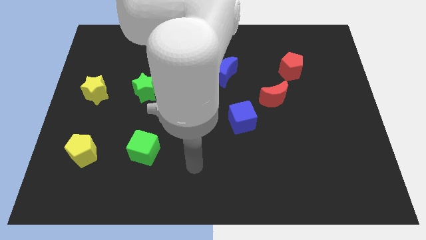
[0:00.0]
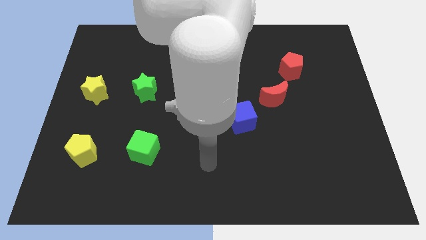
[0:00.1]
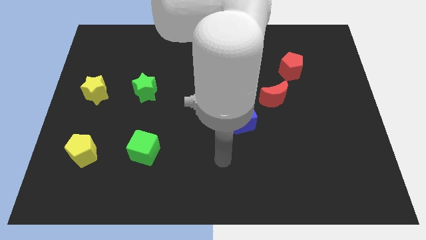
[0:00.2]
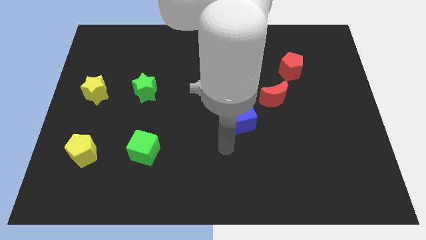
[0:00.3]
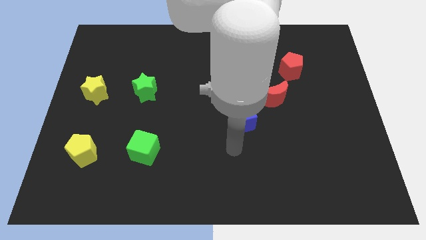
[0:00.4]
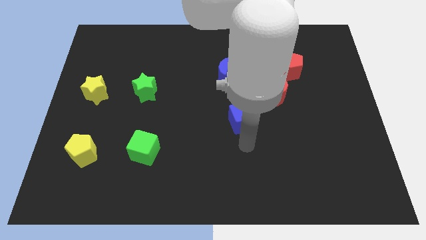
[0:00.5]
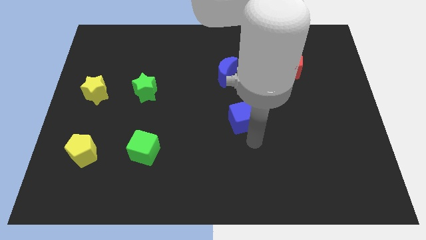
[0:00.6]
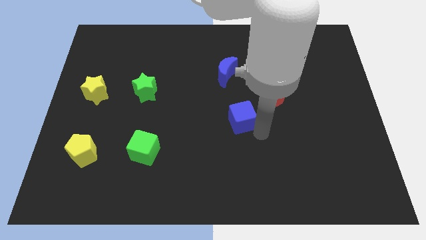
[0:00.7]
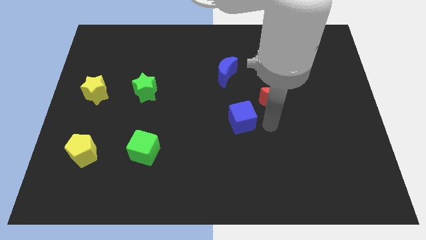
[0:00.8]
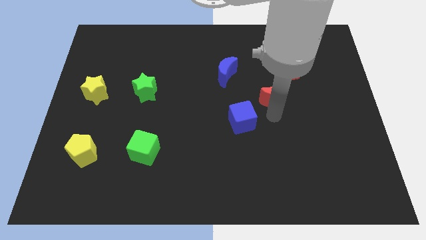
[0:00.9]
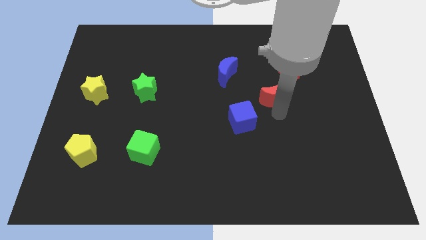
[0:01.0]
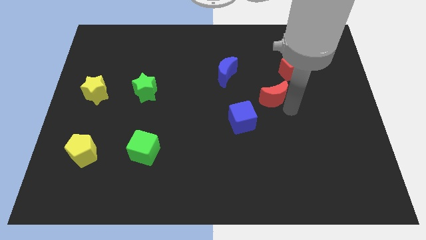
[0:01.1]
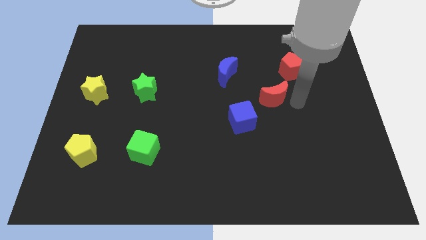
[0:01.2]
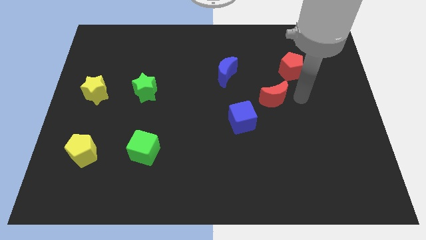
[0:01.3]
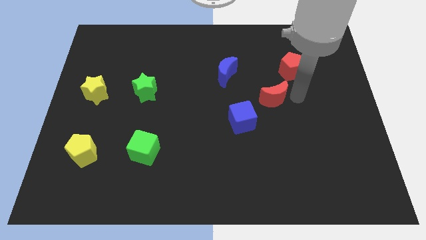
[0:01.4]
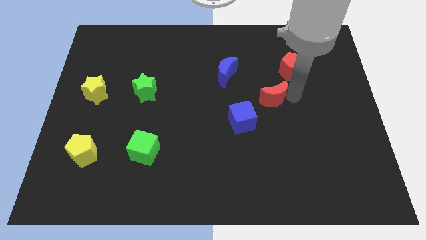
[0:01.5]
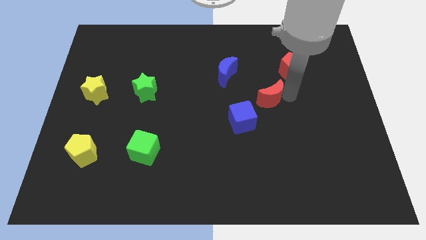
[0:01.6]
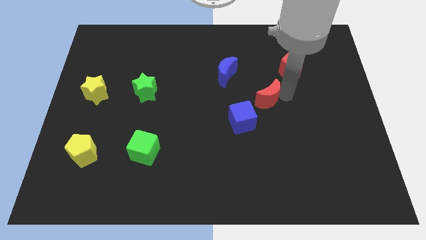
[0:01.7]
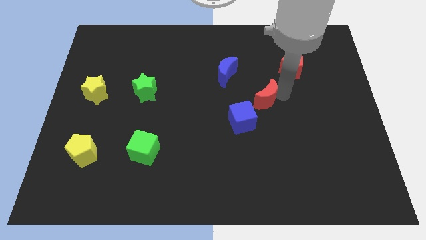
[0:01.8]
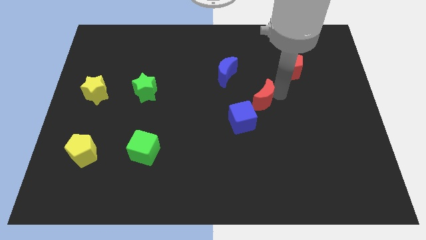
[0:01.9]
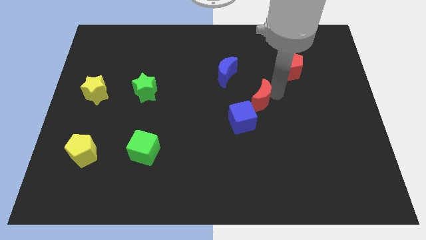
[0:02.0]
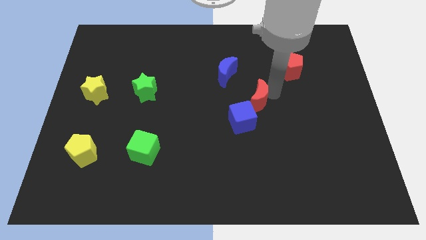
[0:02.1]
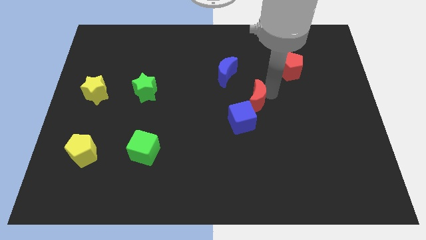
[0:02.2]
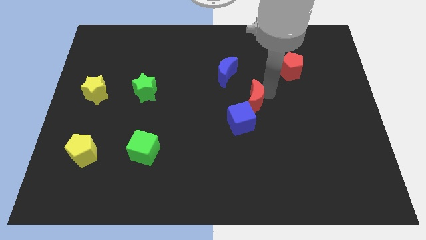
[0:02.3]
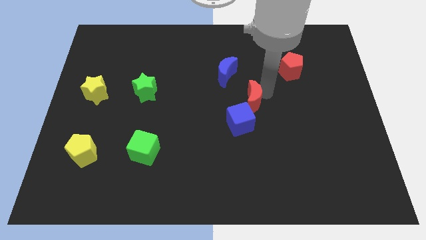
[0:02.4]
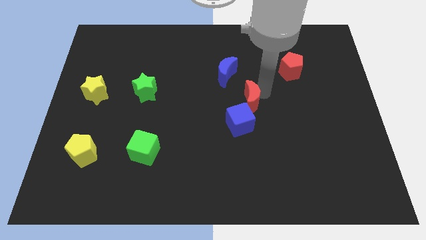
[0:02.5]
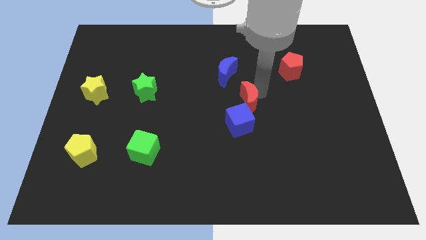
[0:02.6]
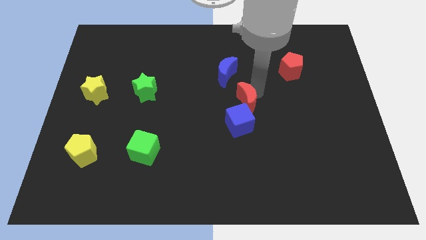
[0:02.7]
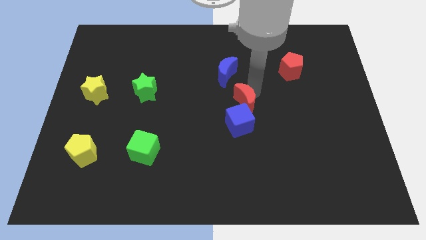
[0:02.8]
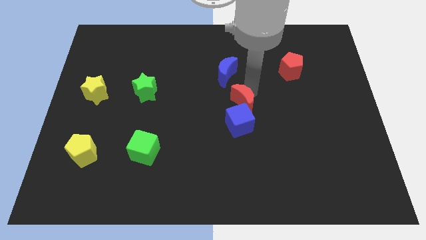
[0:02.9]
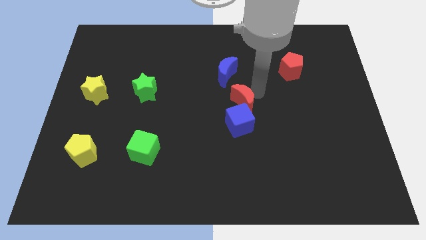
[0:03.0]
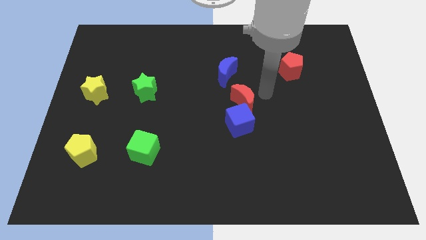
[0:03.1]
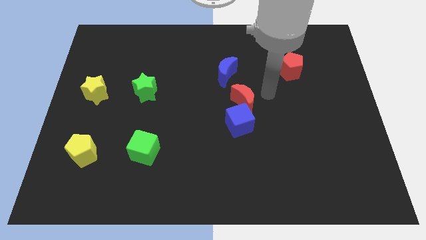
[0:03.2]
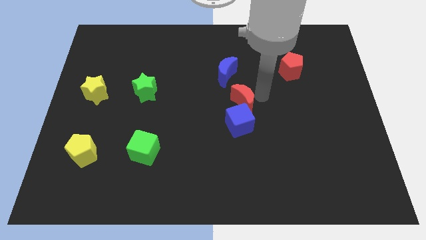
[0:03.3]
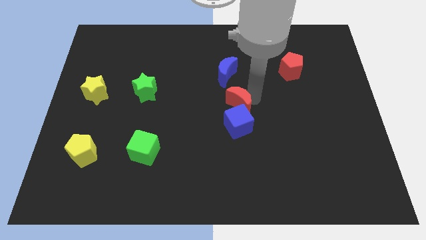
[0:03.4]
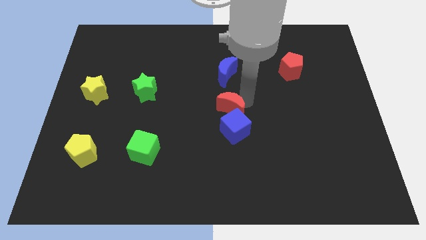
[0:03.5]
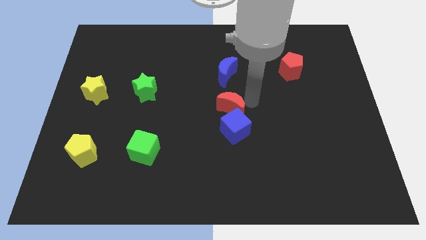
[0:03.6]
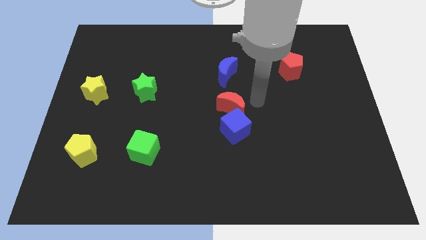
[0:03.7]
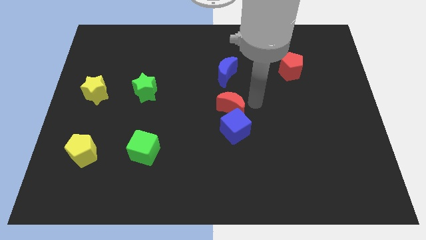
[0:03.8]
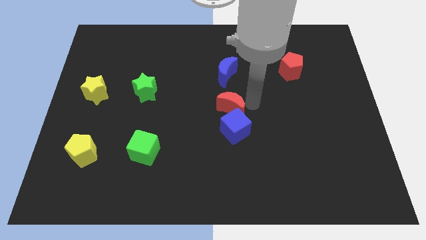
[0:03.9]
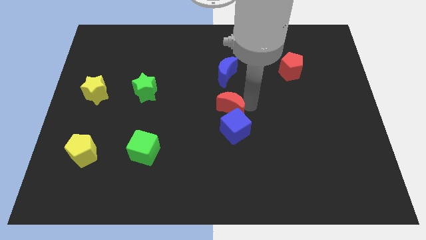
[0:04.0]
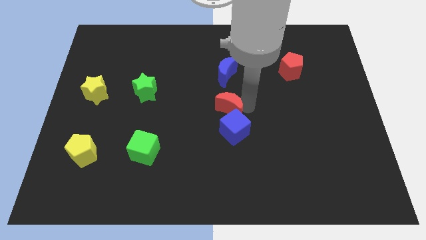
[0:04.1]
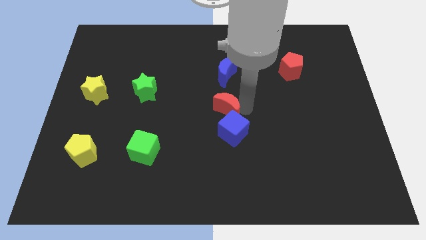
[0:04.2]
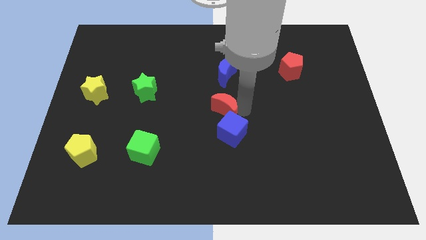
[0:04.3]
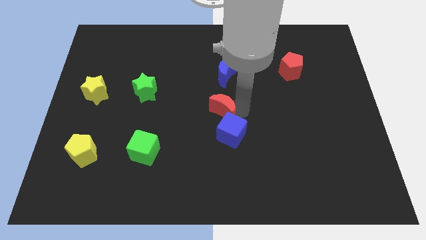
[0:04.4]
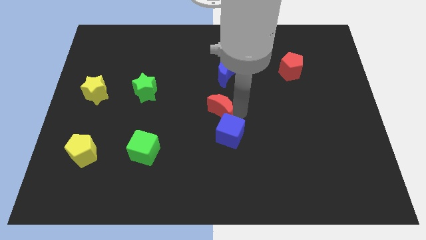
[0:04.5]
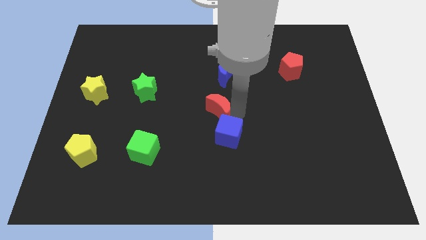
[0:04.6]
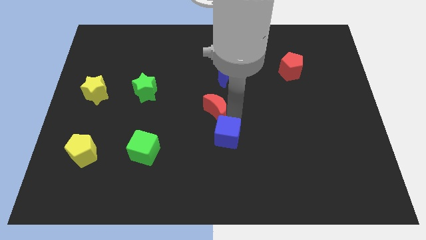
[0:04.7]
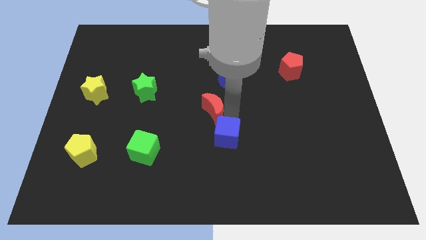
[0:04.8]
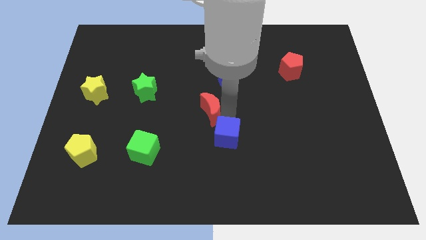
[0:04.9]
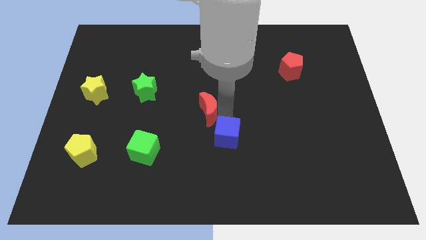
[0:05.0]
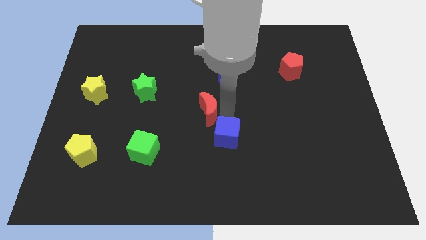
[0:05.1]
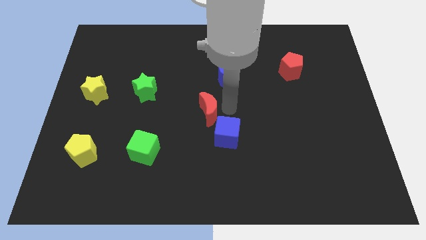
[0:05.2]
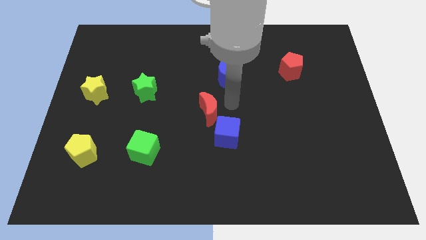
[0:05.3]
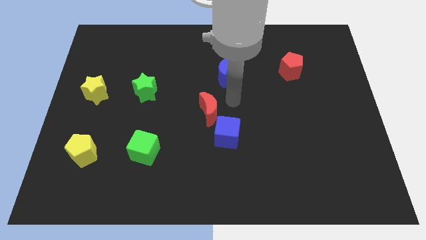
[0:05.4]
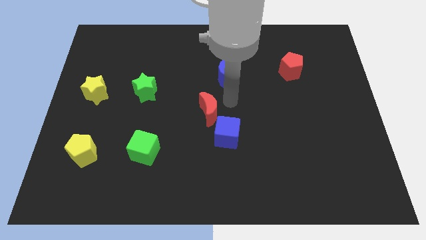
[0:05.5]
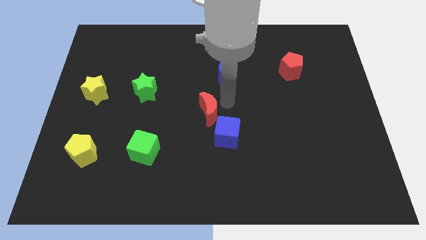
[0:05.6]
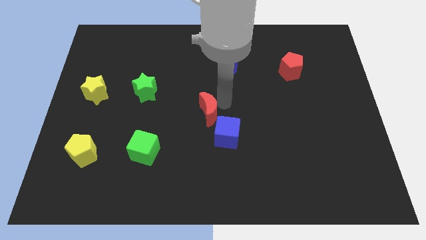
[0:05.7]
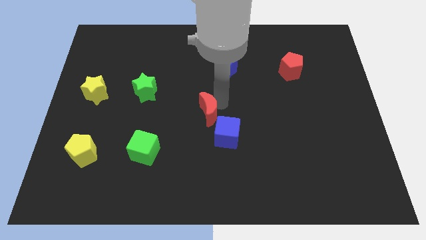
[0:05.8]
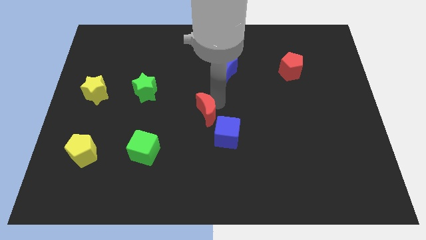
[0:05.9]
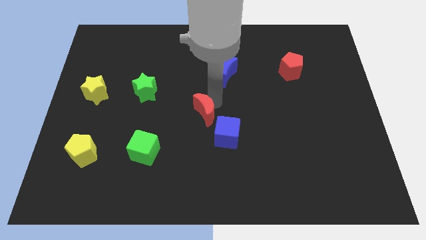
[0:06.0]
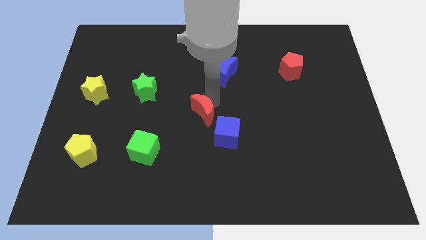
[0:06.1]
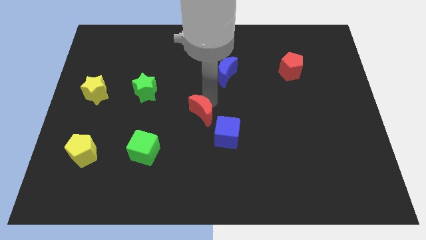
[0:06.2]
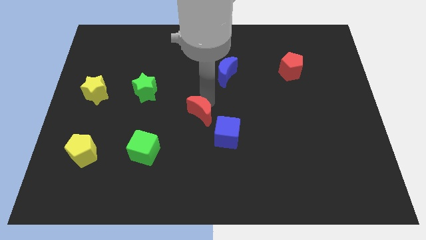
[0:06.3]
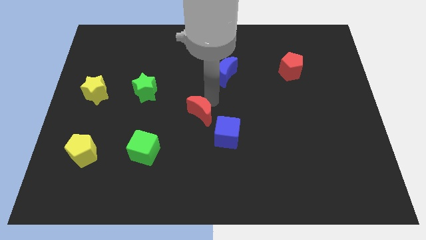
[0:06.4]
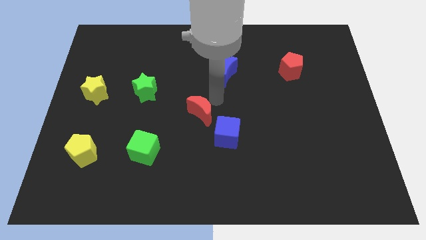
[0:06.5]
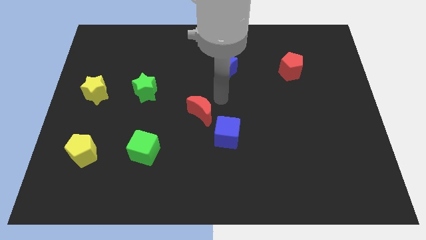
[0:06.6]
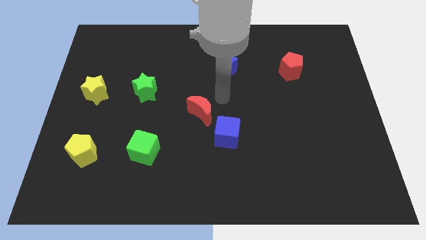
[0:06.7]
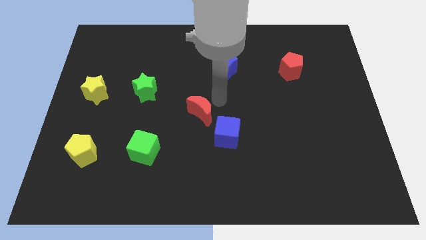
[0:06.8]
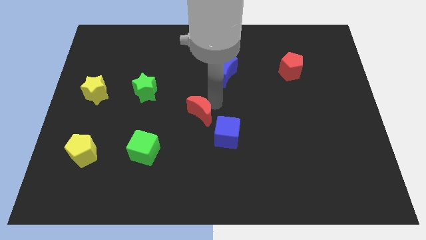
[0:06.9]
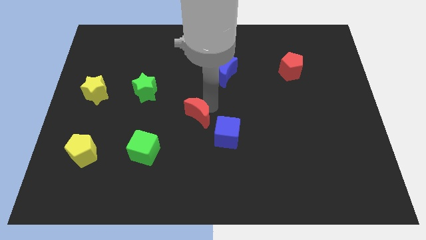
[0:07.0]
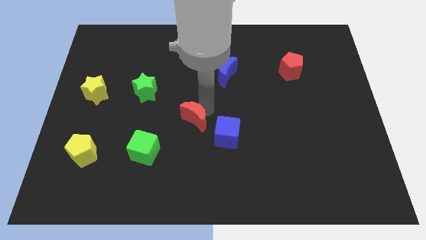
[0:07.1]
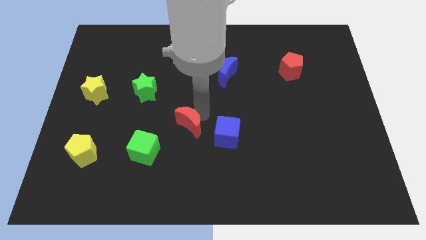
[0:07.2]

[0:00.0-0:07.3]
put the red moon to the top right side of the green cube

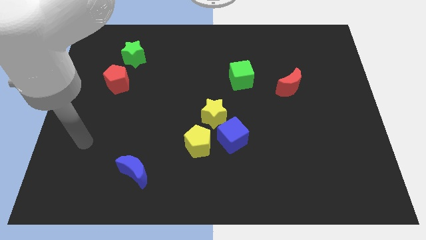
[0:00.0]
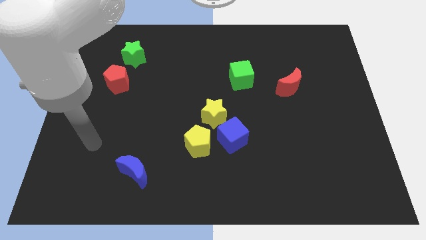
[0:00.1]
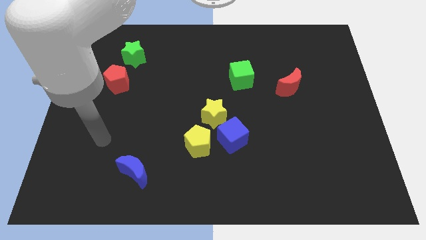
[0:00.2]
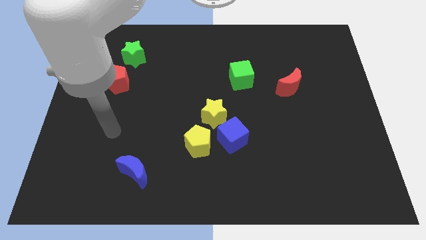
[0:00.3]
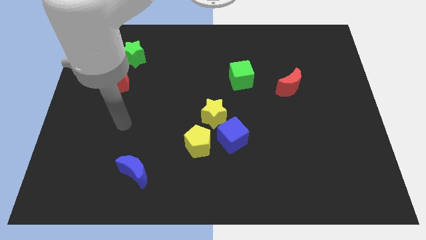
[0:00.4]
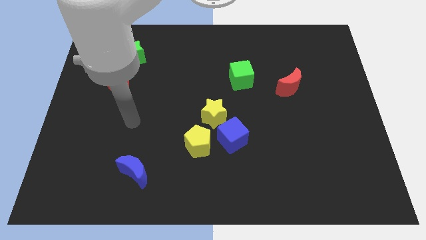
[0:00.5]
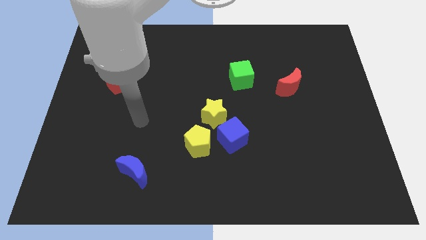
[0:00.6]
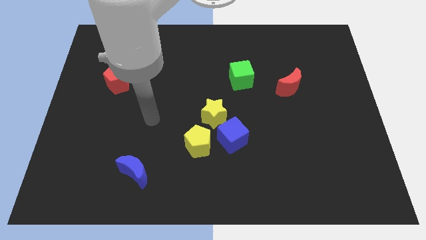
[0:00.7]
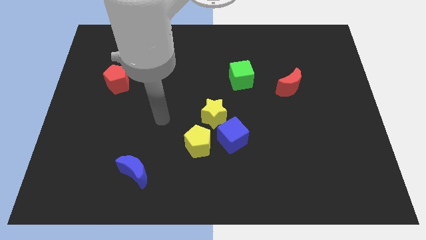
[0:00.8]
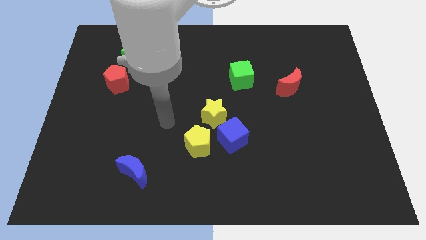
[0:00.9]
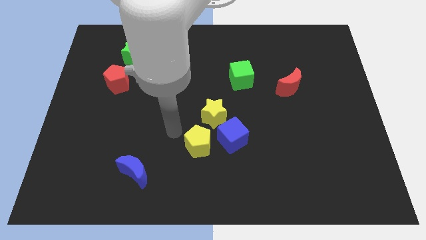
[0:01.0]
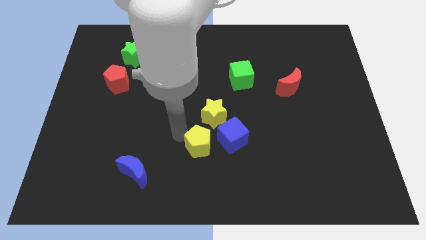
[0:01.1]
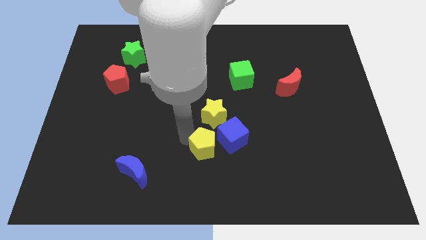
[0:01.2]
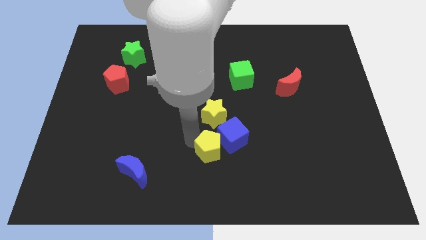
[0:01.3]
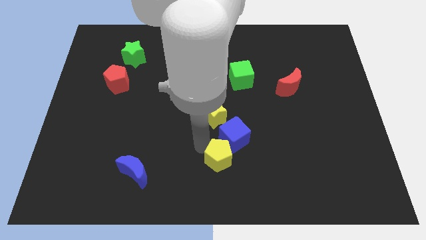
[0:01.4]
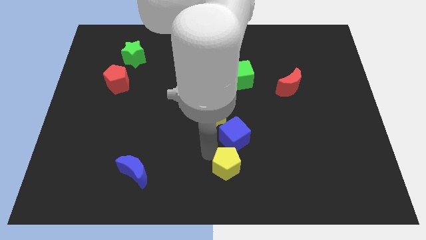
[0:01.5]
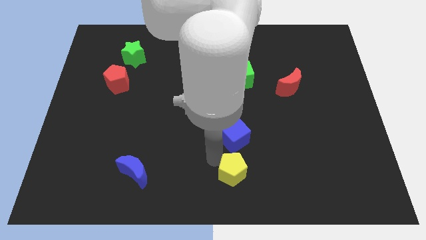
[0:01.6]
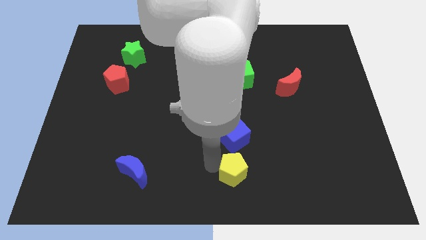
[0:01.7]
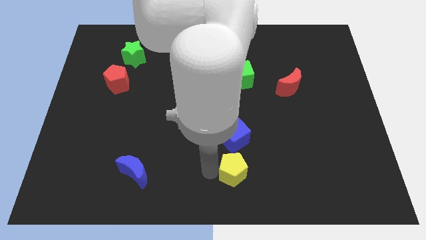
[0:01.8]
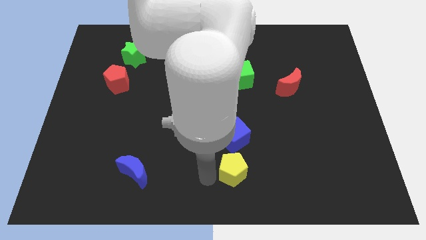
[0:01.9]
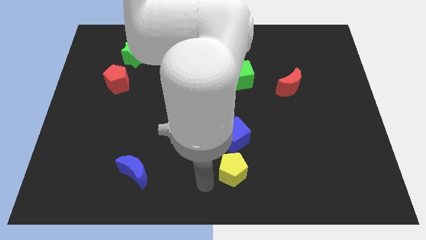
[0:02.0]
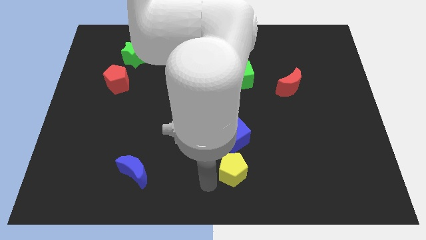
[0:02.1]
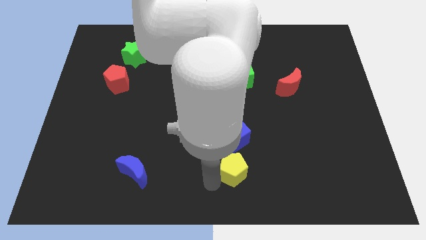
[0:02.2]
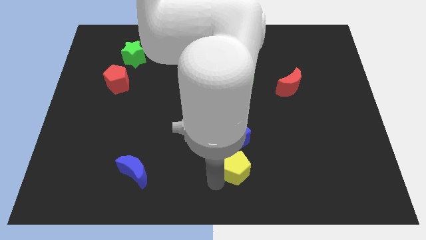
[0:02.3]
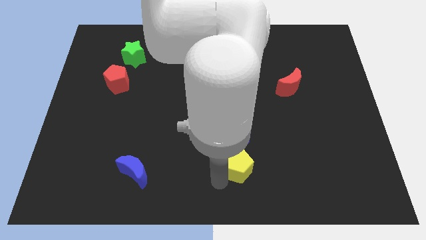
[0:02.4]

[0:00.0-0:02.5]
put the yellow pentagon to the bottom right side of the blue cube
